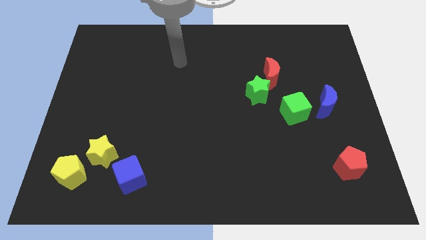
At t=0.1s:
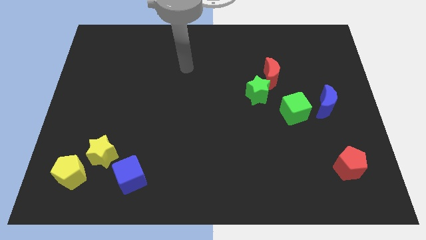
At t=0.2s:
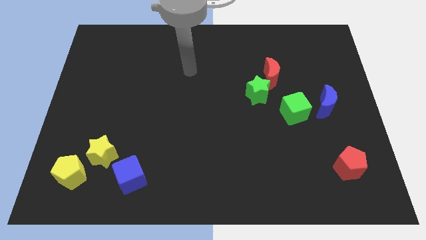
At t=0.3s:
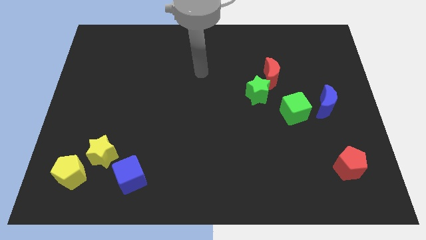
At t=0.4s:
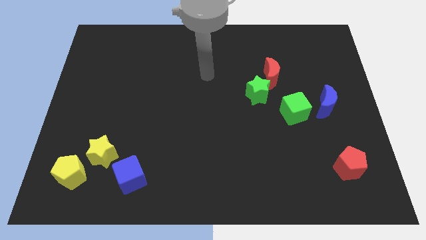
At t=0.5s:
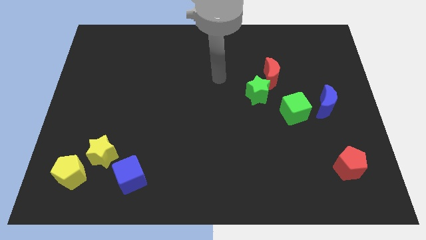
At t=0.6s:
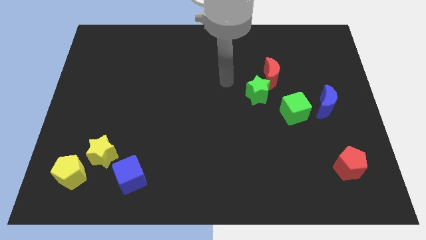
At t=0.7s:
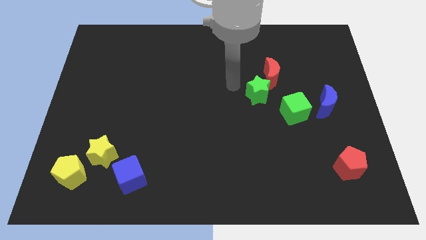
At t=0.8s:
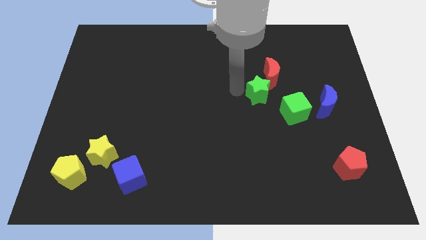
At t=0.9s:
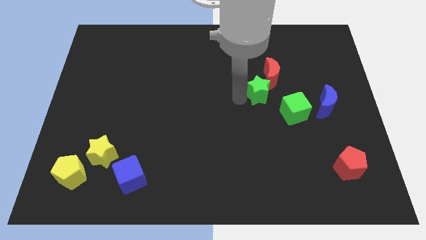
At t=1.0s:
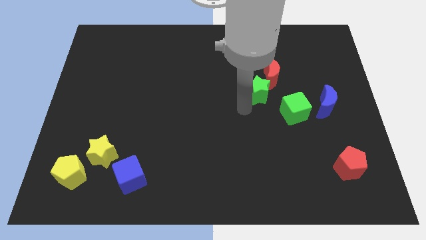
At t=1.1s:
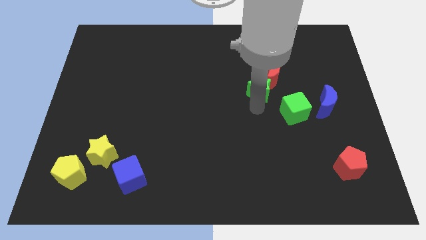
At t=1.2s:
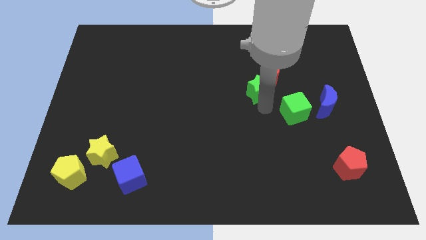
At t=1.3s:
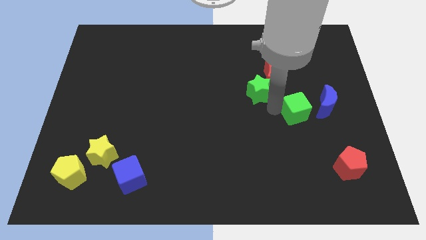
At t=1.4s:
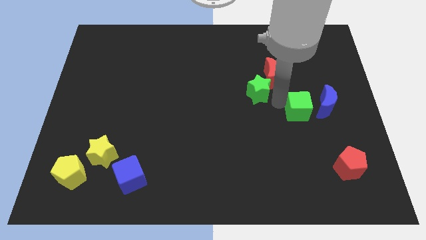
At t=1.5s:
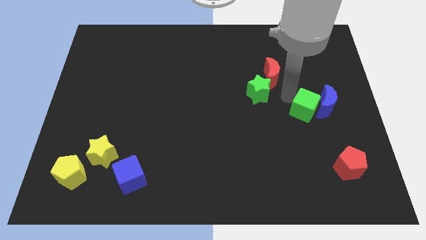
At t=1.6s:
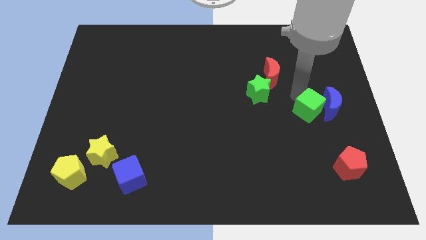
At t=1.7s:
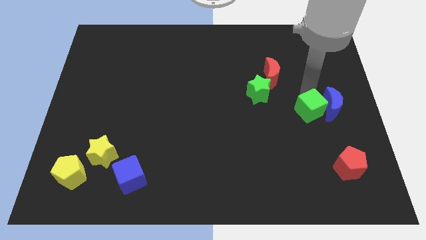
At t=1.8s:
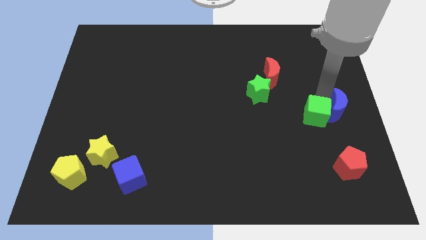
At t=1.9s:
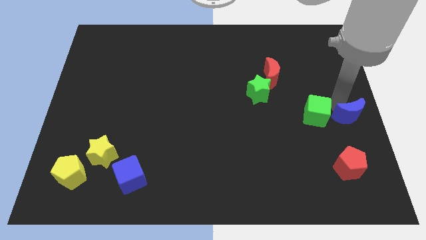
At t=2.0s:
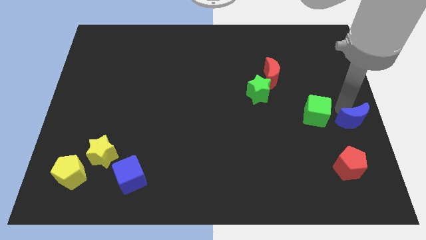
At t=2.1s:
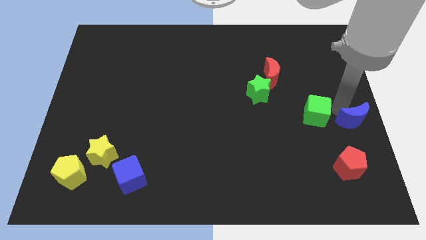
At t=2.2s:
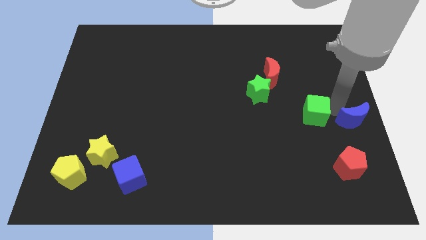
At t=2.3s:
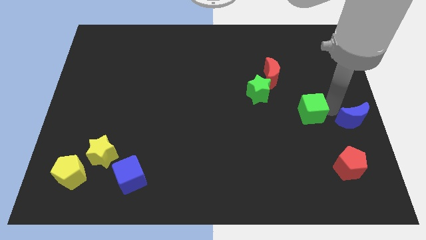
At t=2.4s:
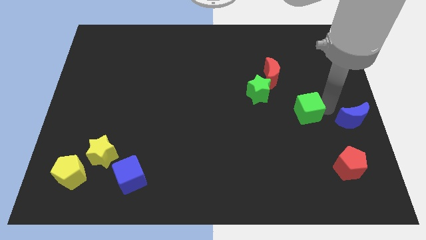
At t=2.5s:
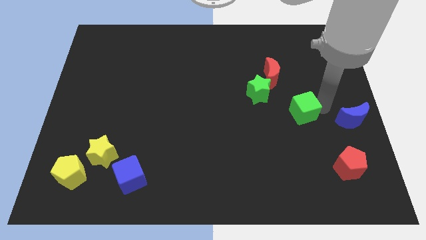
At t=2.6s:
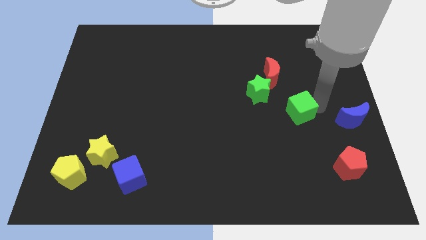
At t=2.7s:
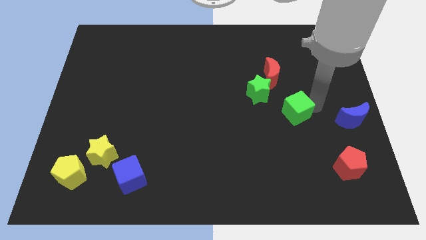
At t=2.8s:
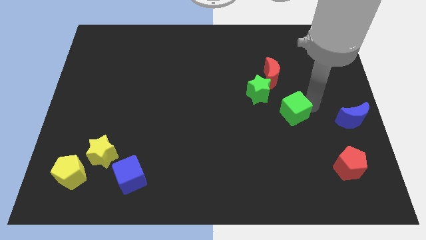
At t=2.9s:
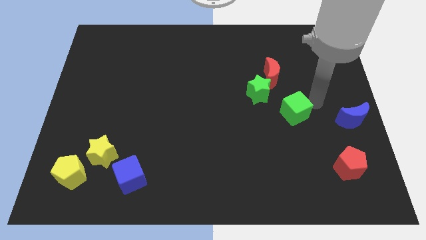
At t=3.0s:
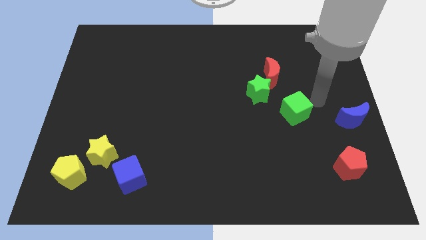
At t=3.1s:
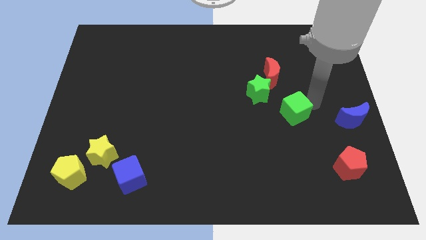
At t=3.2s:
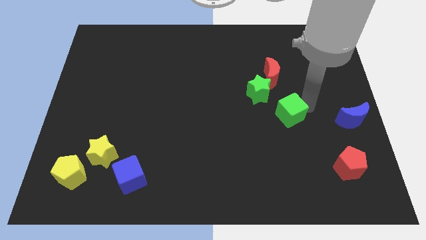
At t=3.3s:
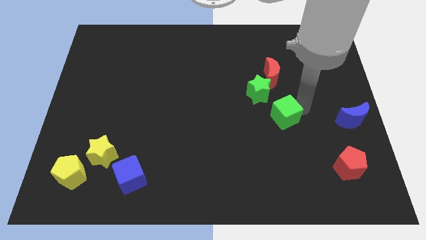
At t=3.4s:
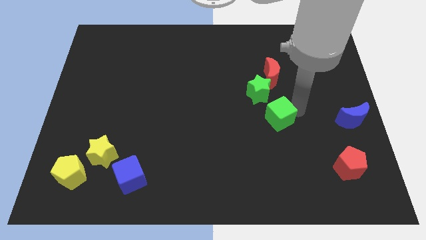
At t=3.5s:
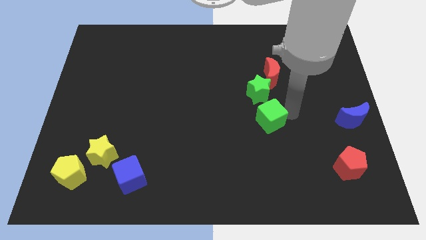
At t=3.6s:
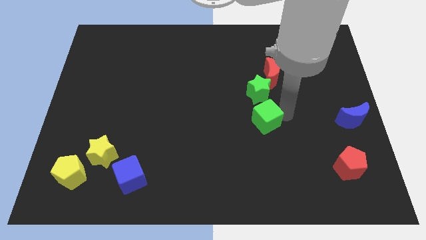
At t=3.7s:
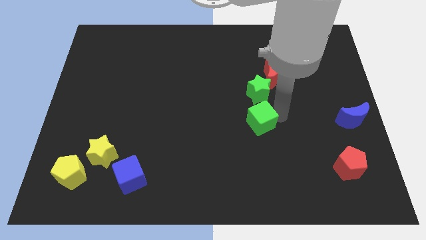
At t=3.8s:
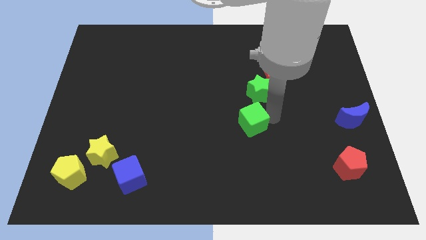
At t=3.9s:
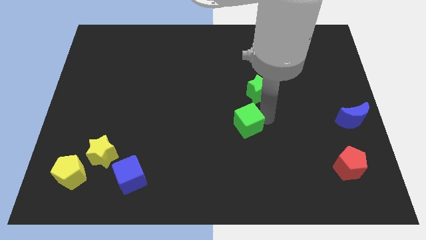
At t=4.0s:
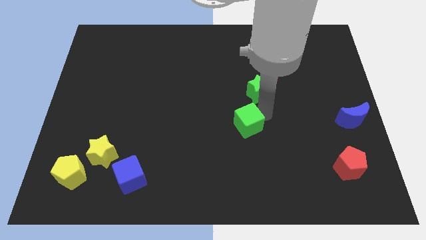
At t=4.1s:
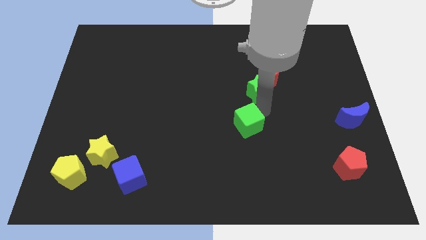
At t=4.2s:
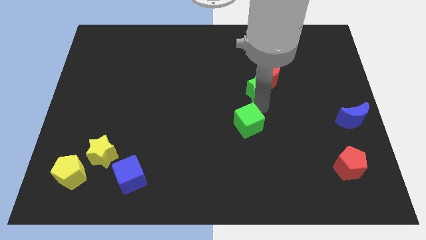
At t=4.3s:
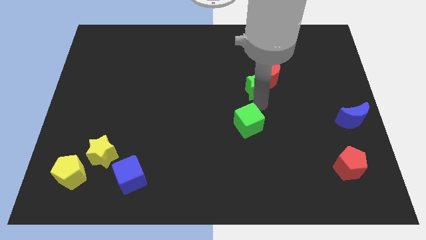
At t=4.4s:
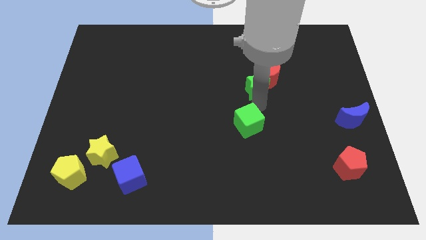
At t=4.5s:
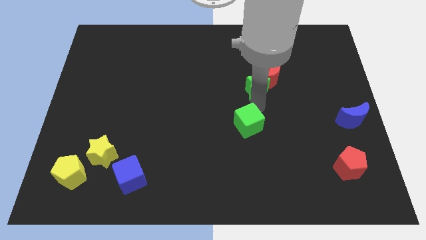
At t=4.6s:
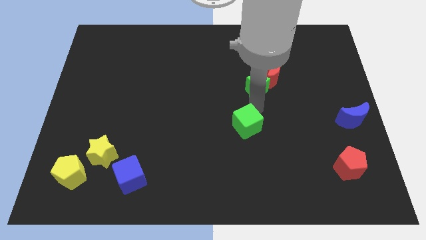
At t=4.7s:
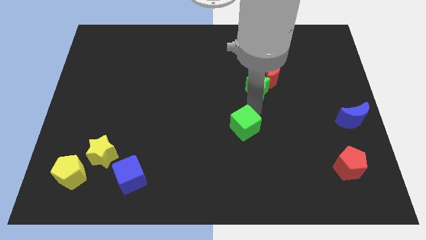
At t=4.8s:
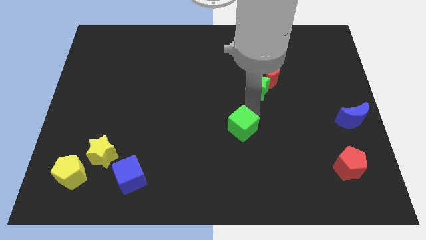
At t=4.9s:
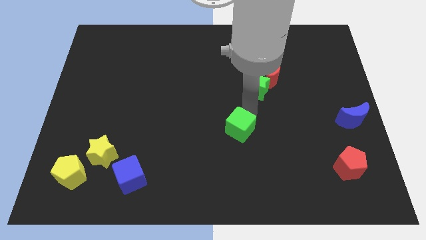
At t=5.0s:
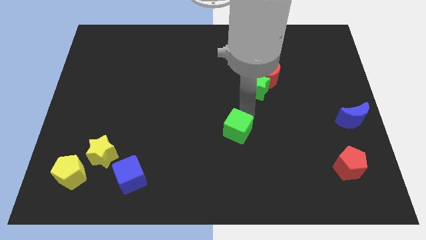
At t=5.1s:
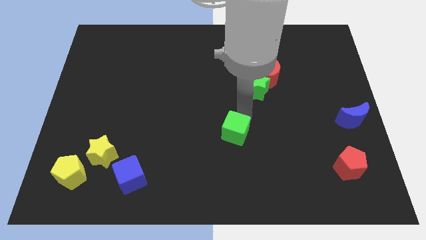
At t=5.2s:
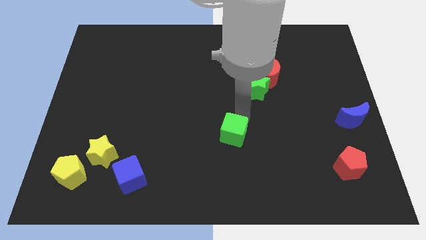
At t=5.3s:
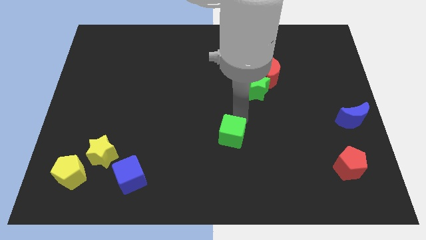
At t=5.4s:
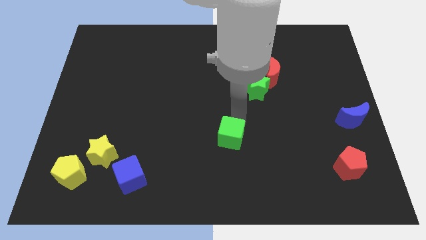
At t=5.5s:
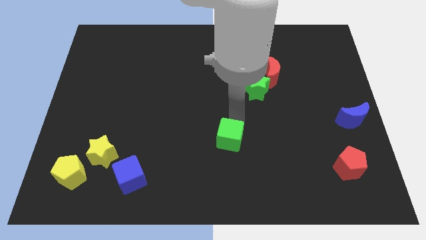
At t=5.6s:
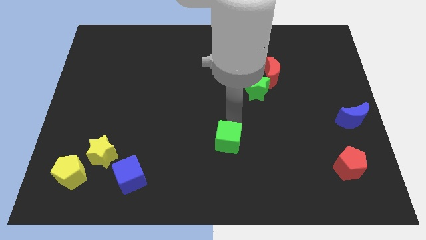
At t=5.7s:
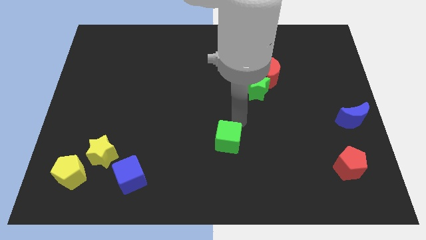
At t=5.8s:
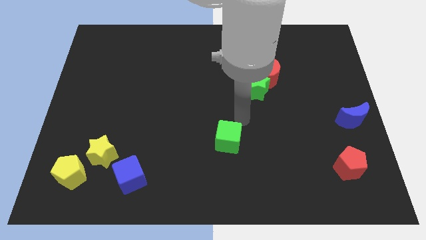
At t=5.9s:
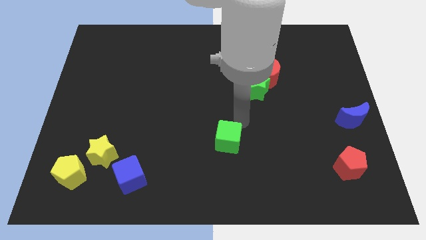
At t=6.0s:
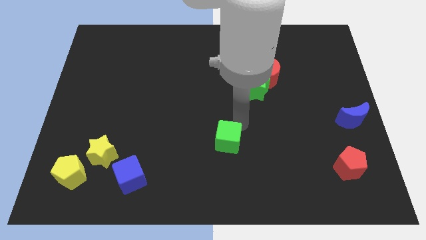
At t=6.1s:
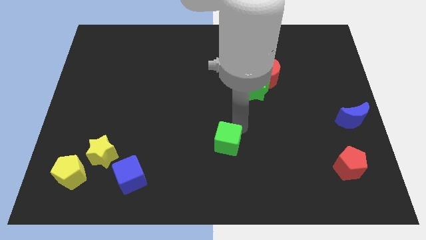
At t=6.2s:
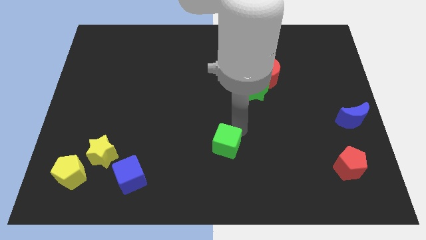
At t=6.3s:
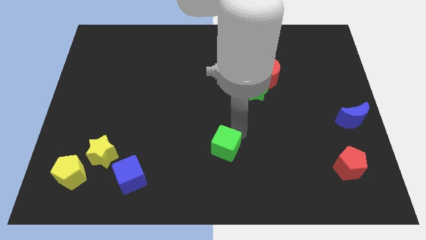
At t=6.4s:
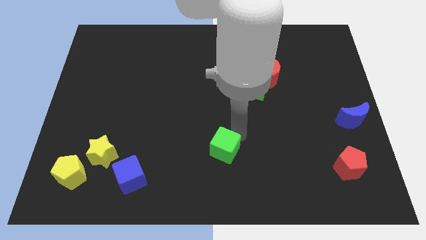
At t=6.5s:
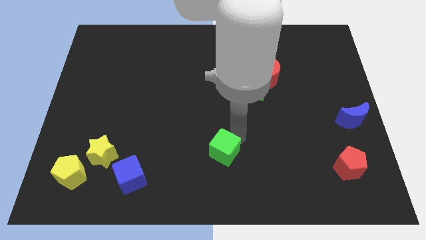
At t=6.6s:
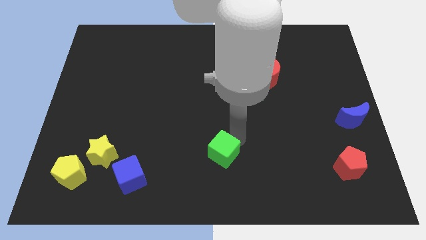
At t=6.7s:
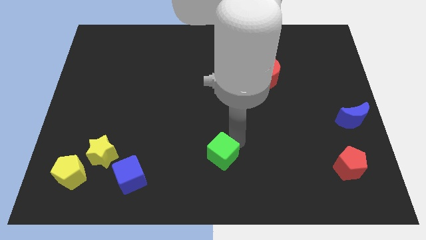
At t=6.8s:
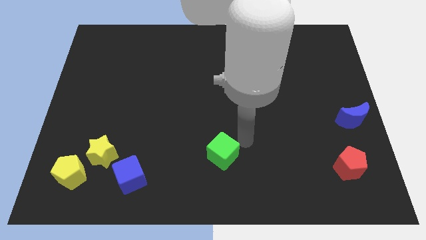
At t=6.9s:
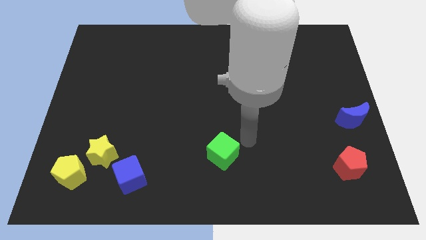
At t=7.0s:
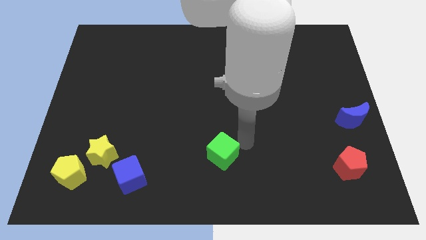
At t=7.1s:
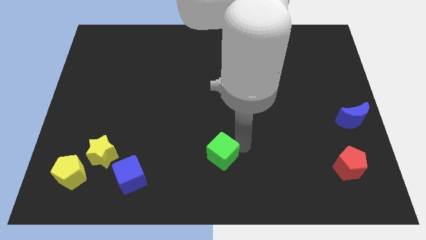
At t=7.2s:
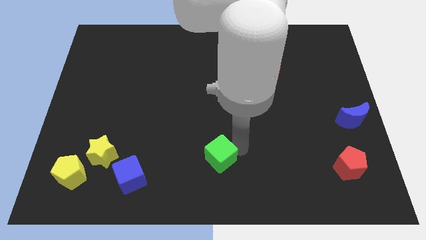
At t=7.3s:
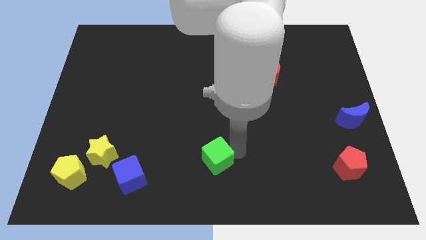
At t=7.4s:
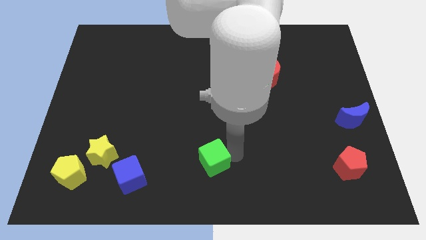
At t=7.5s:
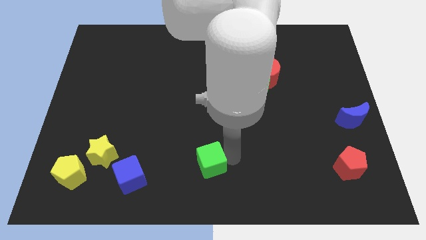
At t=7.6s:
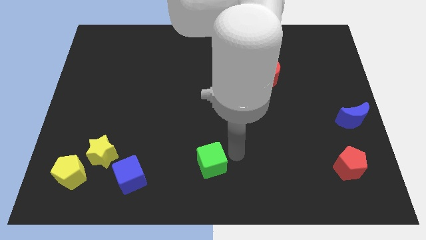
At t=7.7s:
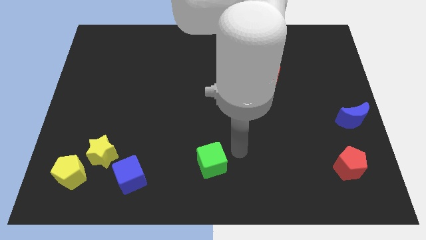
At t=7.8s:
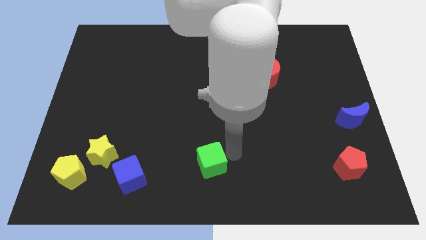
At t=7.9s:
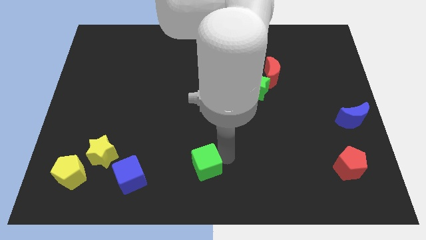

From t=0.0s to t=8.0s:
put the green cube just right of the blue cube
